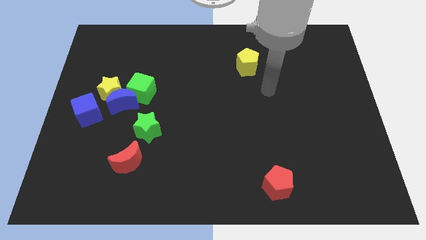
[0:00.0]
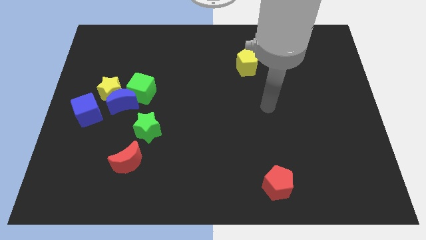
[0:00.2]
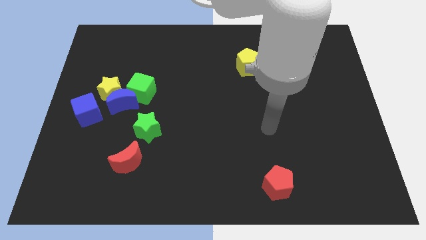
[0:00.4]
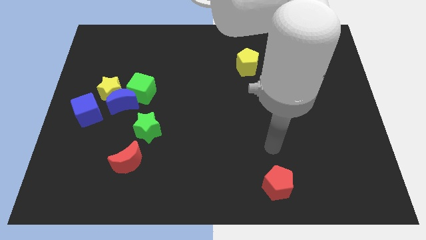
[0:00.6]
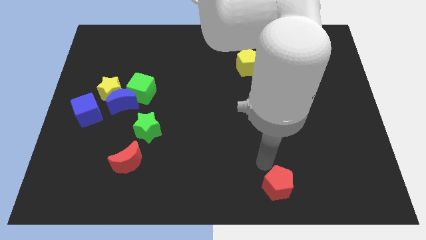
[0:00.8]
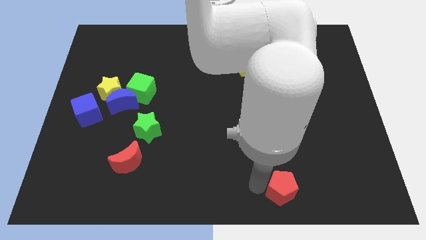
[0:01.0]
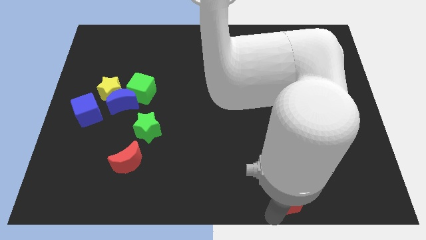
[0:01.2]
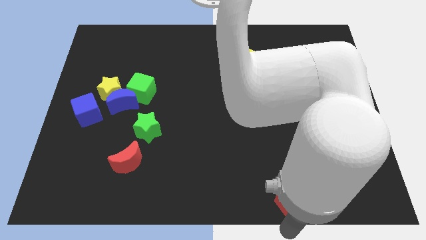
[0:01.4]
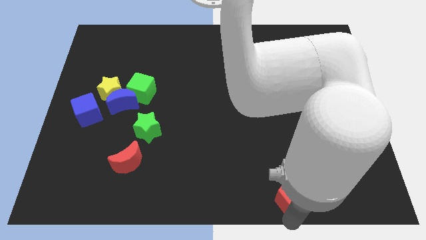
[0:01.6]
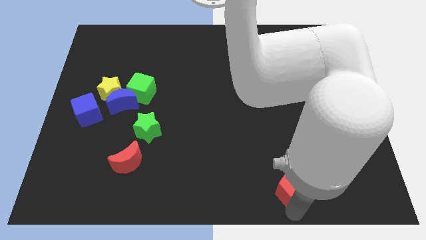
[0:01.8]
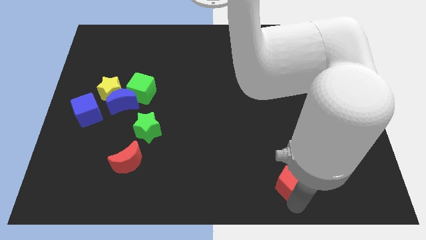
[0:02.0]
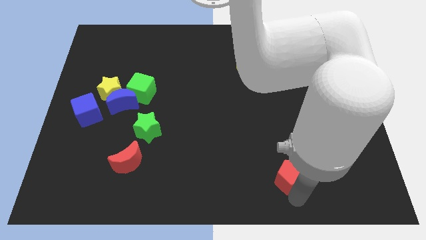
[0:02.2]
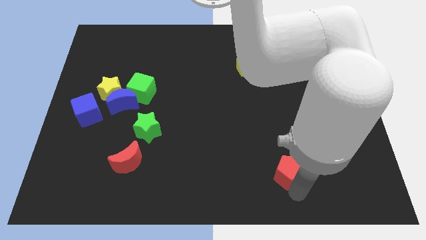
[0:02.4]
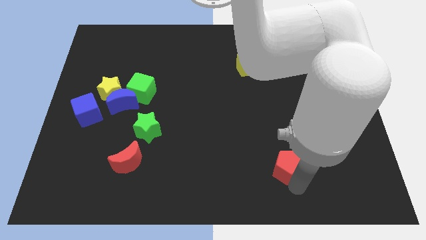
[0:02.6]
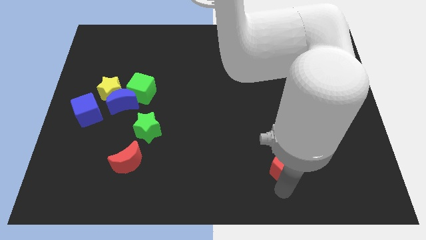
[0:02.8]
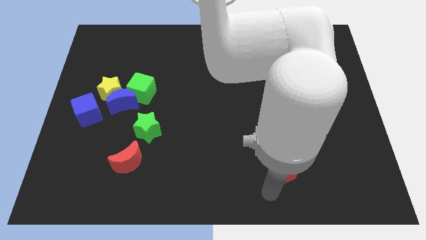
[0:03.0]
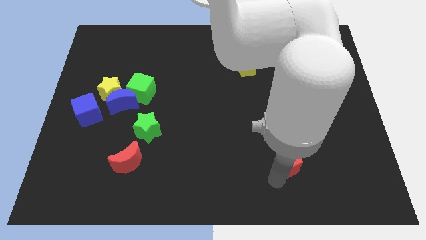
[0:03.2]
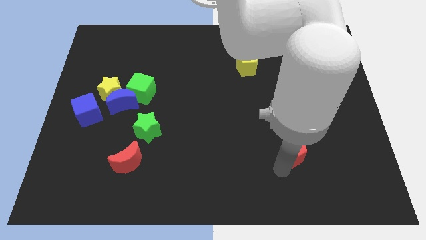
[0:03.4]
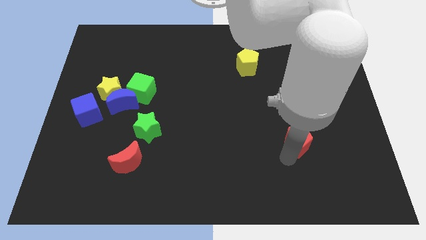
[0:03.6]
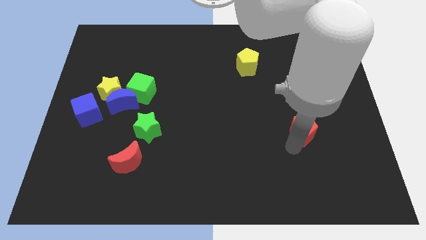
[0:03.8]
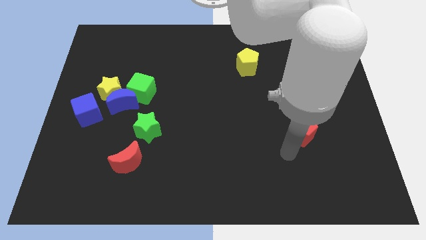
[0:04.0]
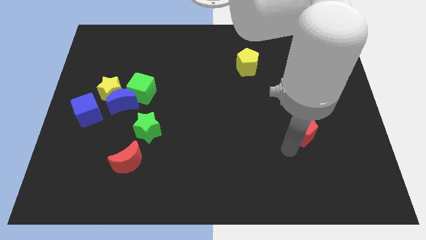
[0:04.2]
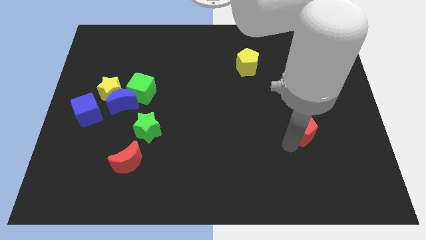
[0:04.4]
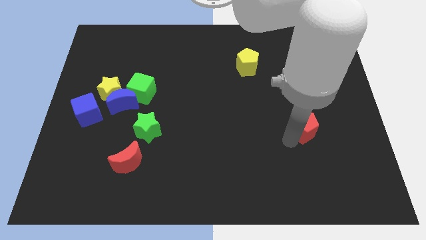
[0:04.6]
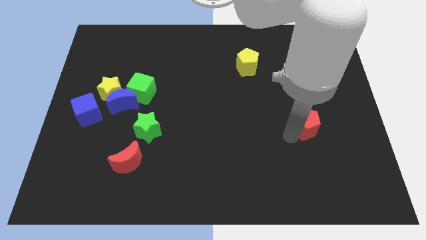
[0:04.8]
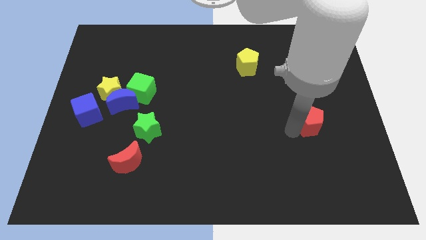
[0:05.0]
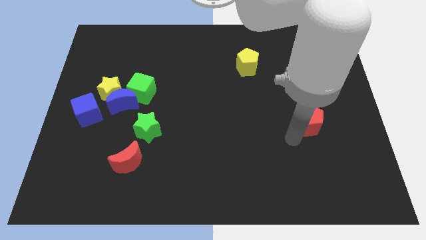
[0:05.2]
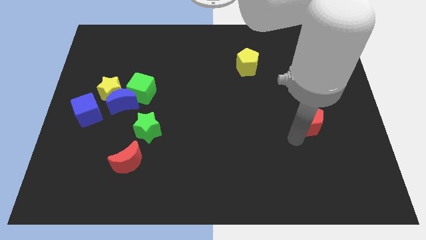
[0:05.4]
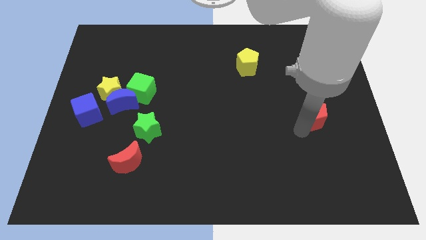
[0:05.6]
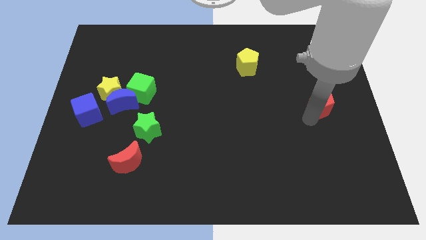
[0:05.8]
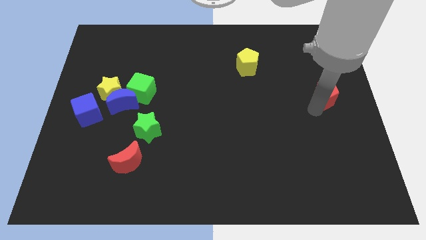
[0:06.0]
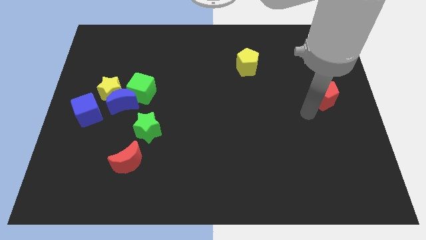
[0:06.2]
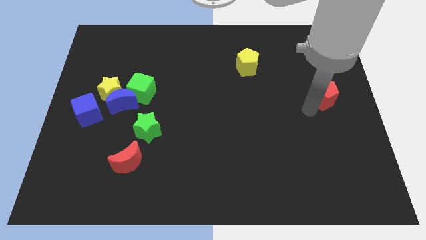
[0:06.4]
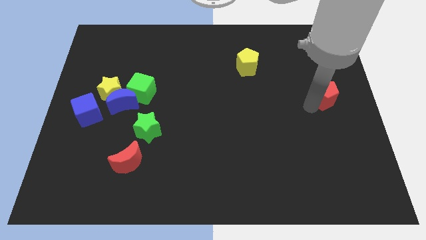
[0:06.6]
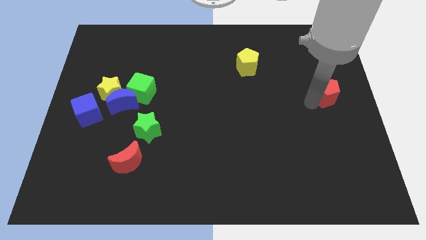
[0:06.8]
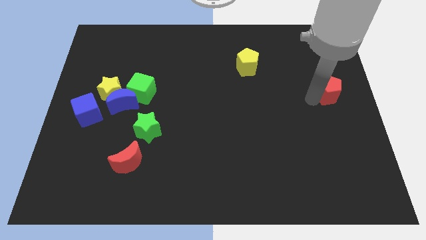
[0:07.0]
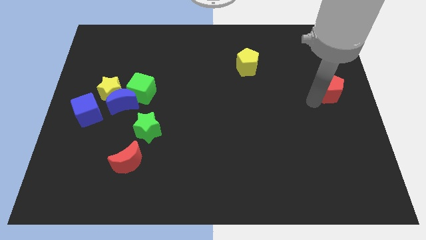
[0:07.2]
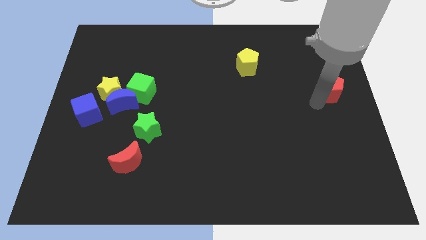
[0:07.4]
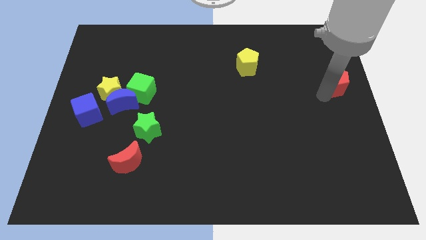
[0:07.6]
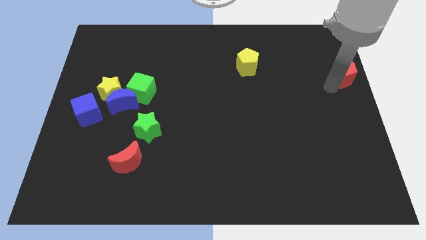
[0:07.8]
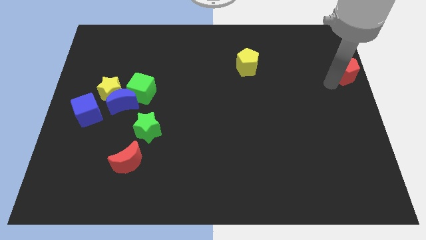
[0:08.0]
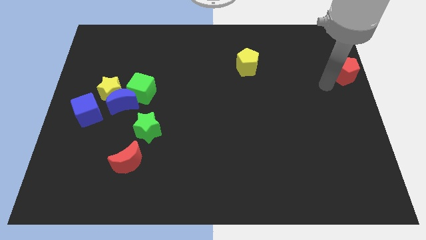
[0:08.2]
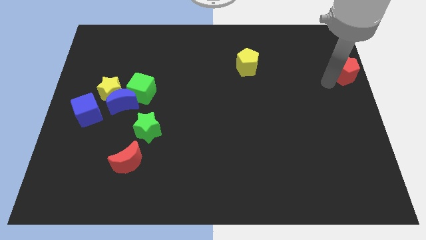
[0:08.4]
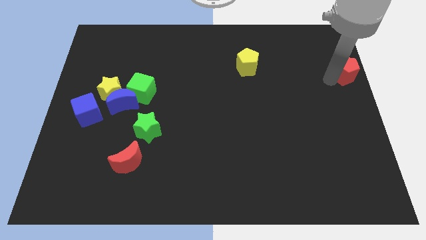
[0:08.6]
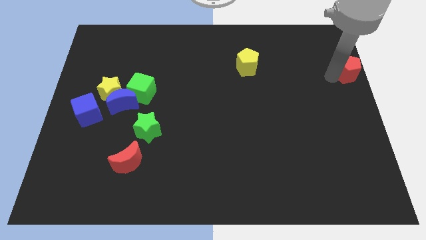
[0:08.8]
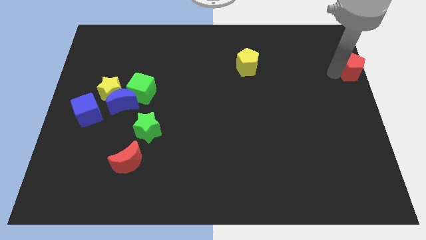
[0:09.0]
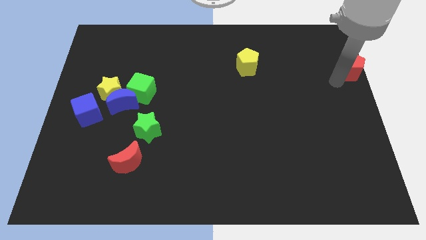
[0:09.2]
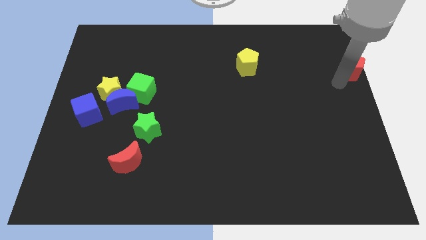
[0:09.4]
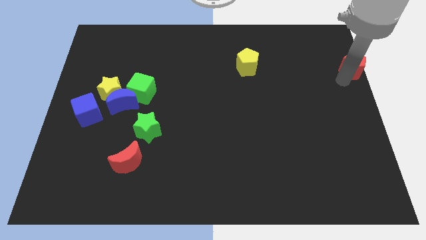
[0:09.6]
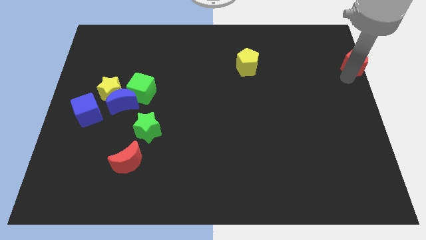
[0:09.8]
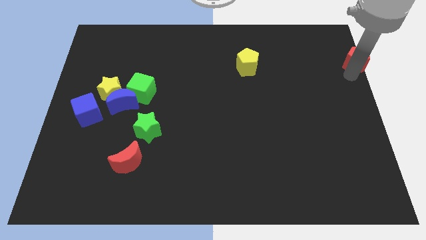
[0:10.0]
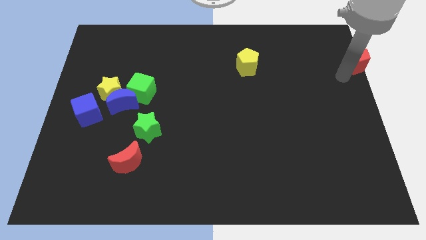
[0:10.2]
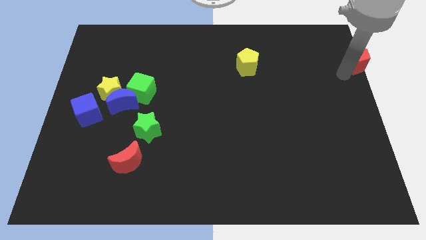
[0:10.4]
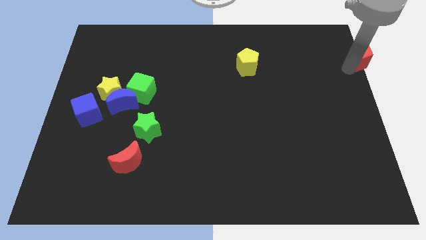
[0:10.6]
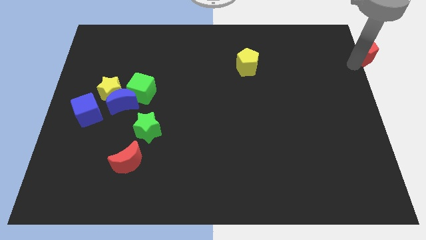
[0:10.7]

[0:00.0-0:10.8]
move the red pentagon to the top right of the board

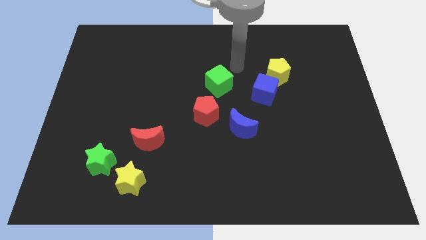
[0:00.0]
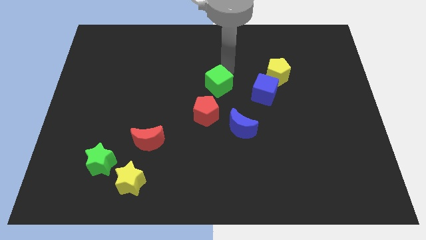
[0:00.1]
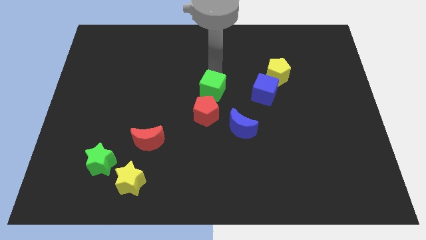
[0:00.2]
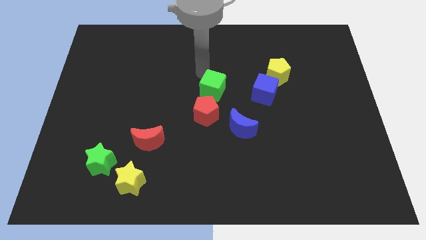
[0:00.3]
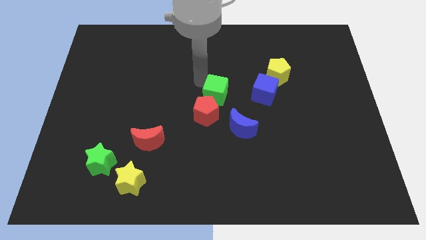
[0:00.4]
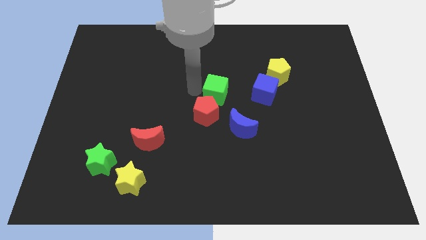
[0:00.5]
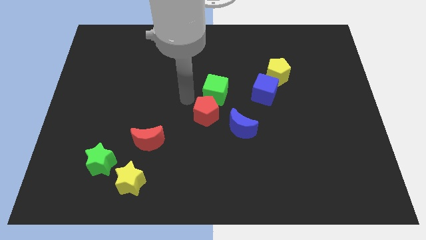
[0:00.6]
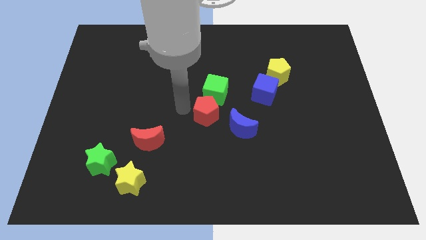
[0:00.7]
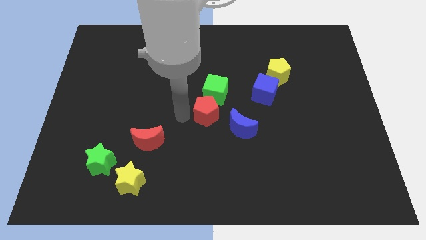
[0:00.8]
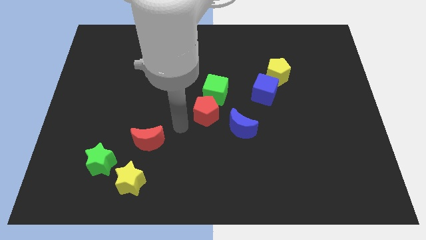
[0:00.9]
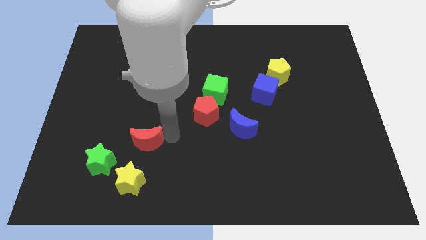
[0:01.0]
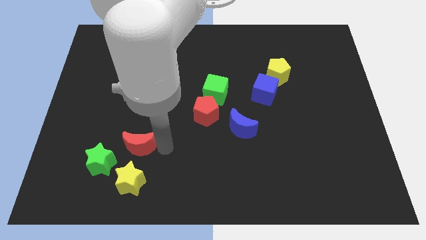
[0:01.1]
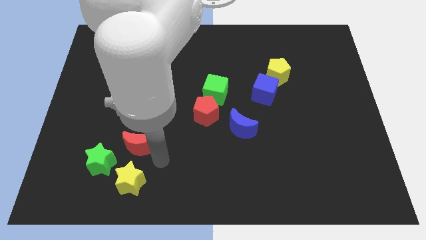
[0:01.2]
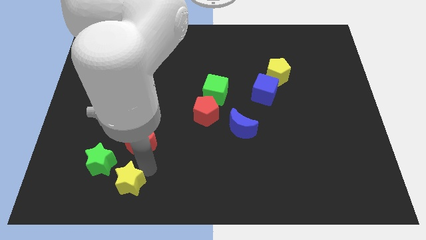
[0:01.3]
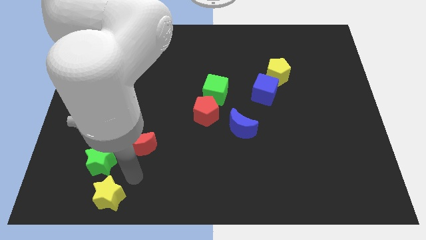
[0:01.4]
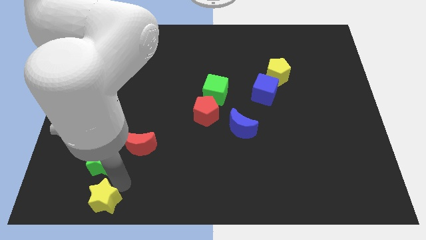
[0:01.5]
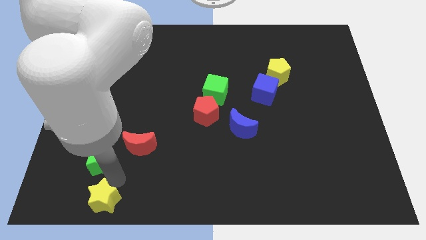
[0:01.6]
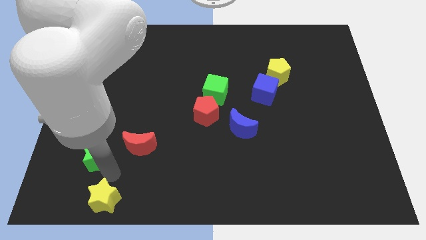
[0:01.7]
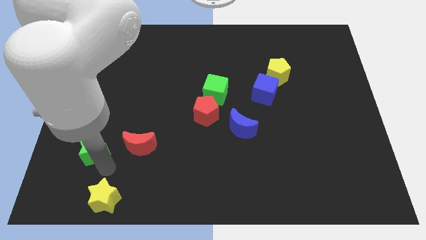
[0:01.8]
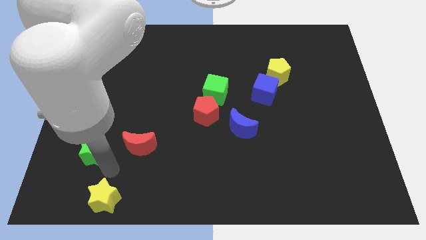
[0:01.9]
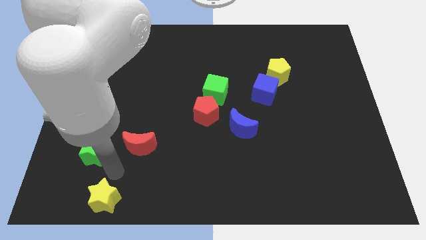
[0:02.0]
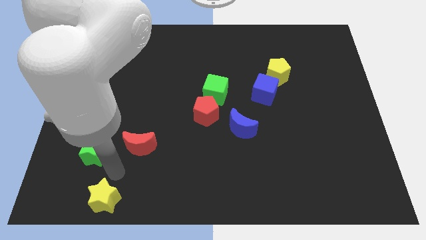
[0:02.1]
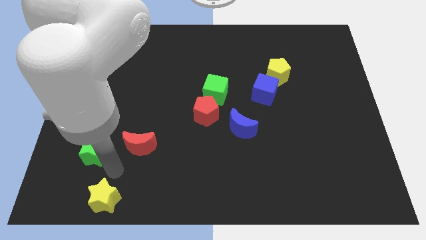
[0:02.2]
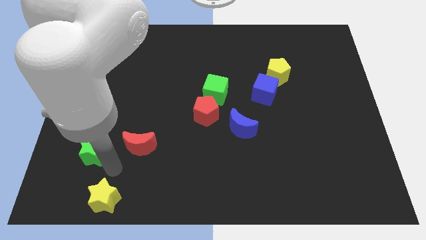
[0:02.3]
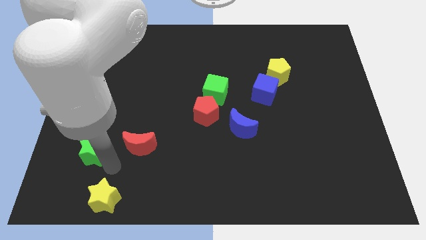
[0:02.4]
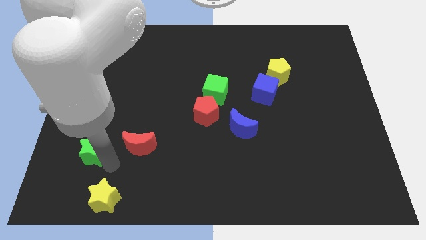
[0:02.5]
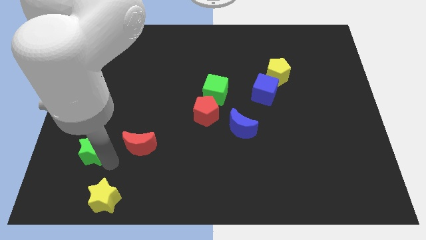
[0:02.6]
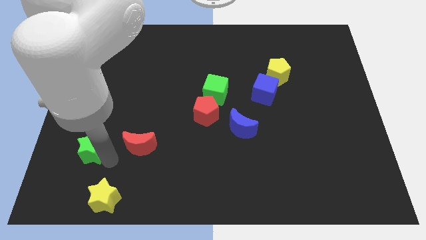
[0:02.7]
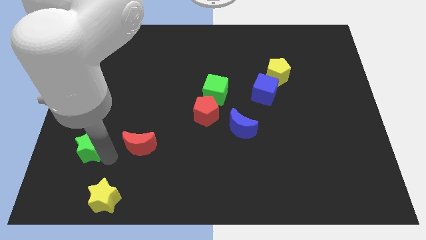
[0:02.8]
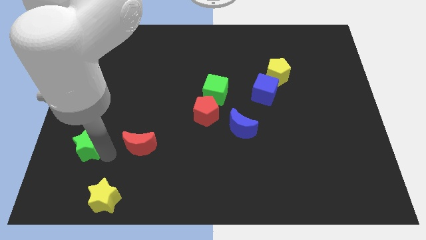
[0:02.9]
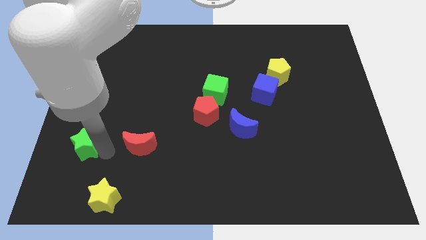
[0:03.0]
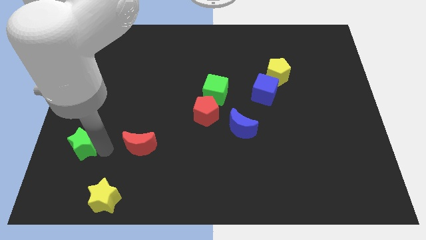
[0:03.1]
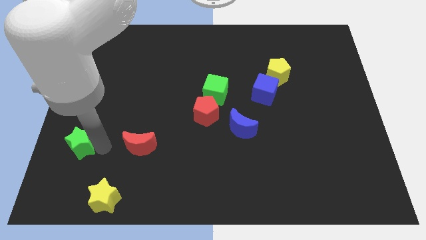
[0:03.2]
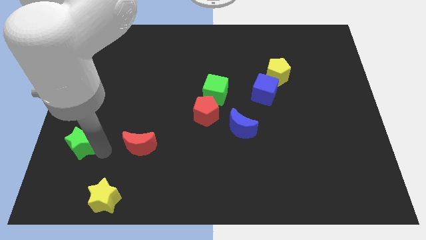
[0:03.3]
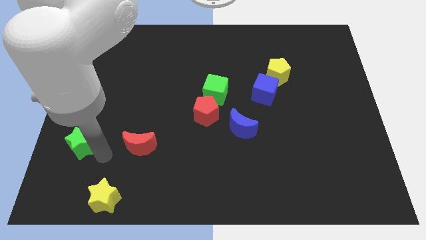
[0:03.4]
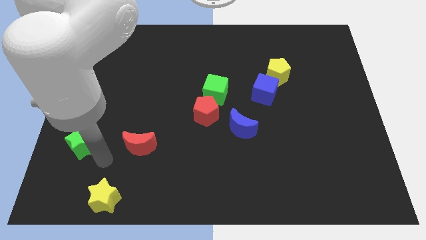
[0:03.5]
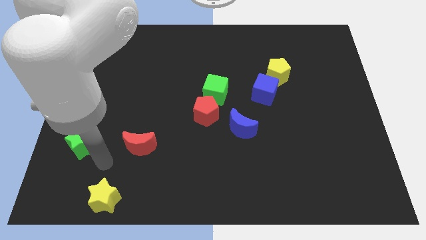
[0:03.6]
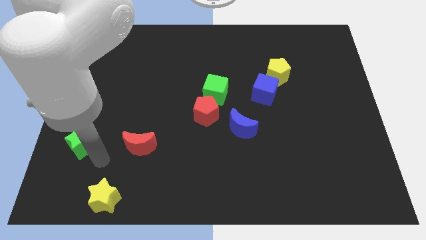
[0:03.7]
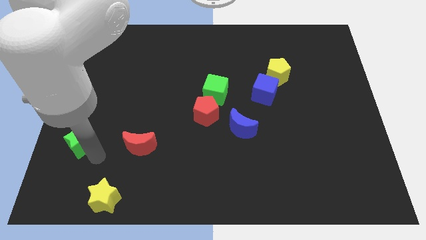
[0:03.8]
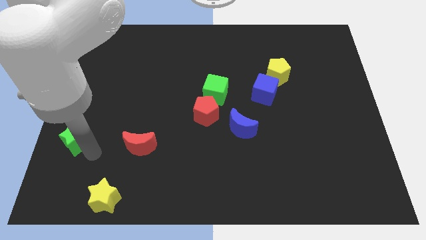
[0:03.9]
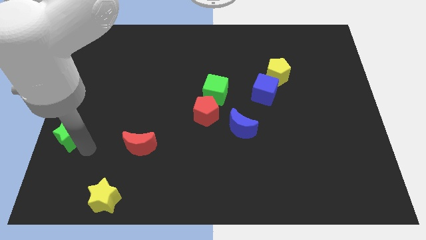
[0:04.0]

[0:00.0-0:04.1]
move the green star to the left side of the board
